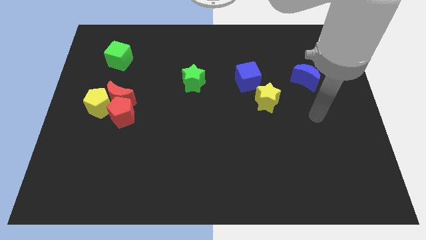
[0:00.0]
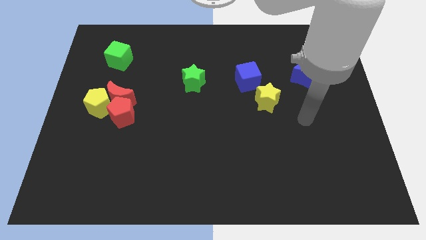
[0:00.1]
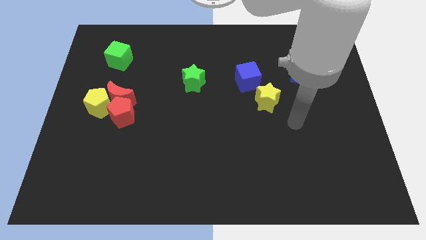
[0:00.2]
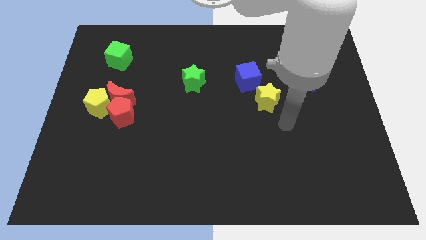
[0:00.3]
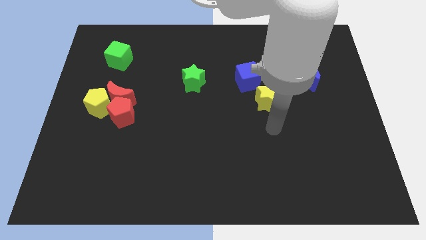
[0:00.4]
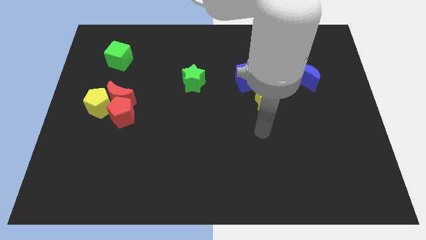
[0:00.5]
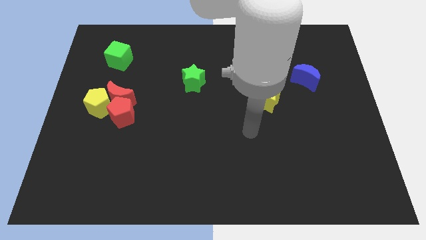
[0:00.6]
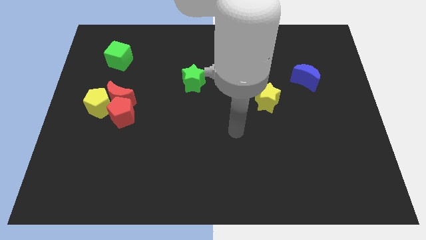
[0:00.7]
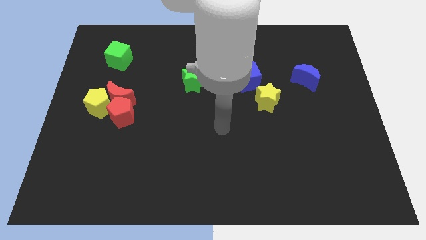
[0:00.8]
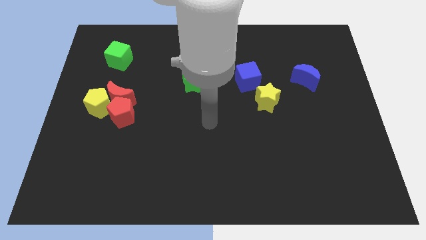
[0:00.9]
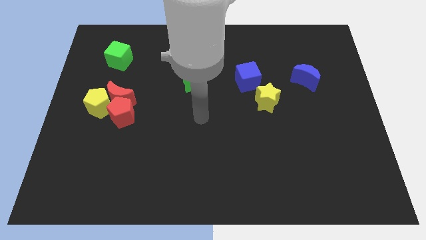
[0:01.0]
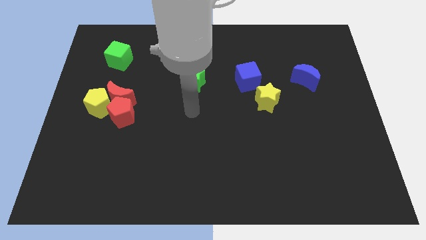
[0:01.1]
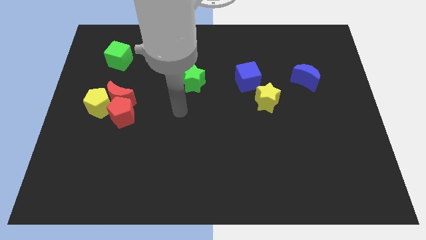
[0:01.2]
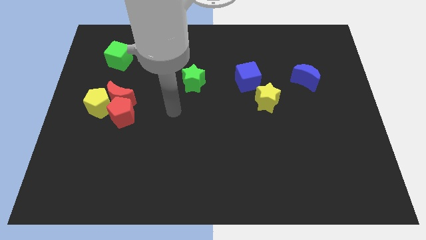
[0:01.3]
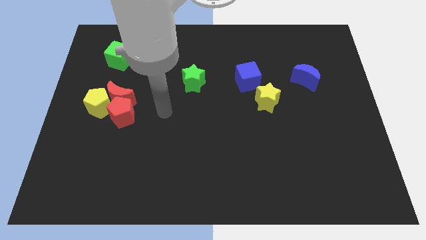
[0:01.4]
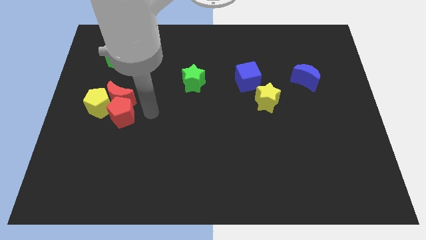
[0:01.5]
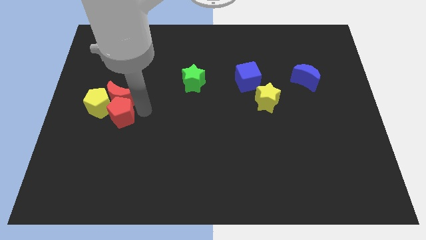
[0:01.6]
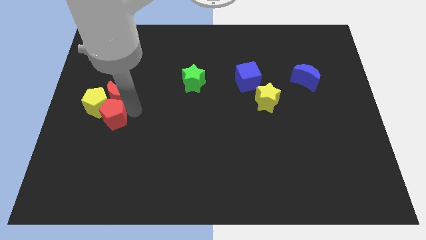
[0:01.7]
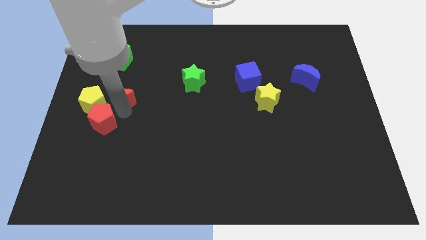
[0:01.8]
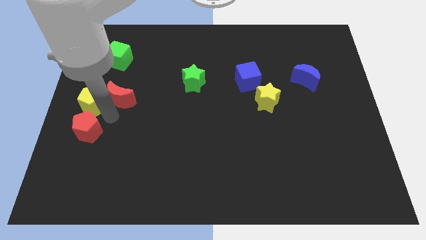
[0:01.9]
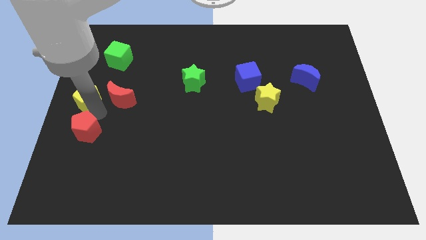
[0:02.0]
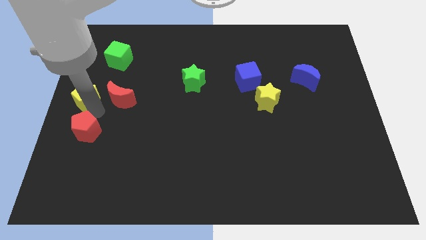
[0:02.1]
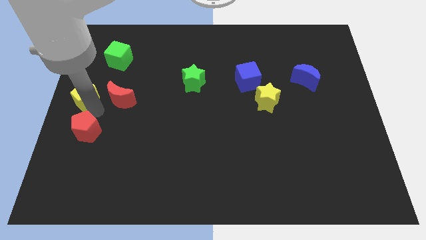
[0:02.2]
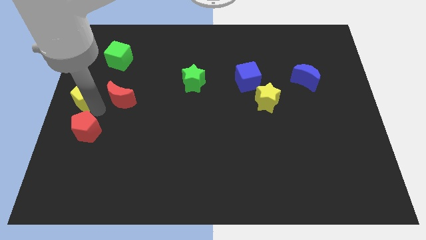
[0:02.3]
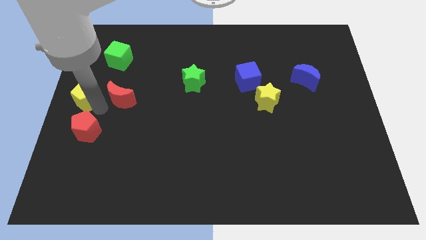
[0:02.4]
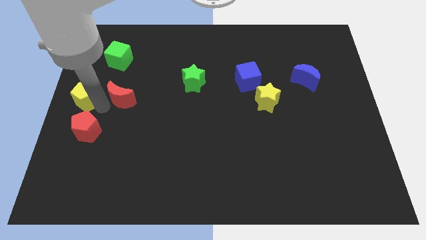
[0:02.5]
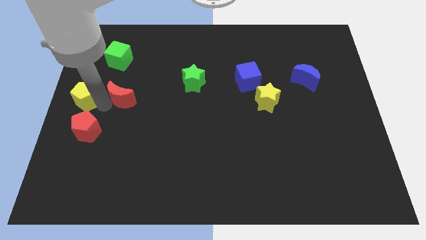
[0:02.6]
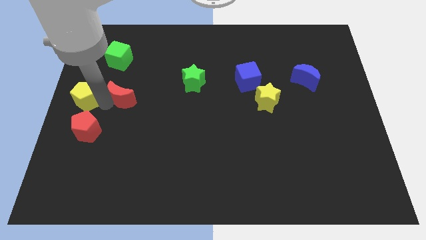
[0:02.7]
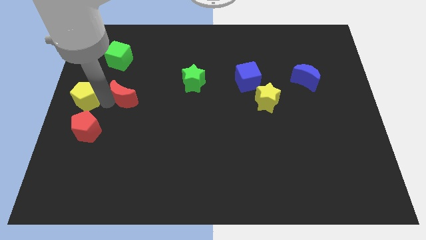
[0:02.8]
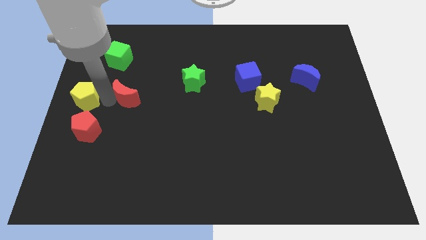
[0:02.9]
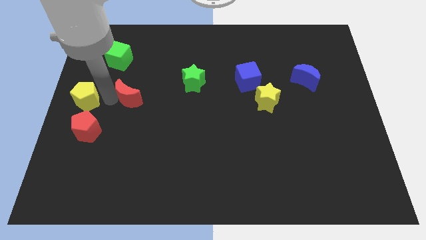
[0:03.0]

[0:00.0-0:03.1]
separate the red moon from the red pentagon and yellow pentagon

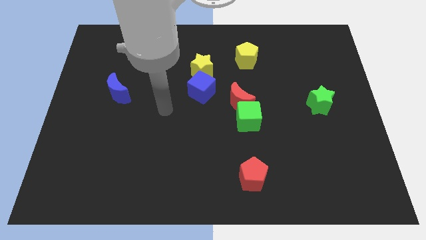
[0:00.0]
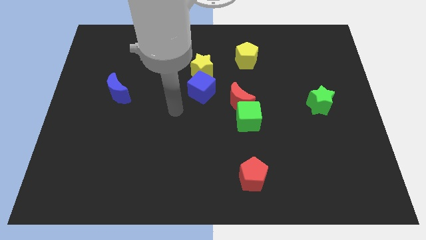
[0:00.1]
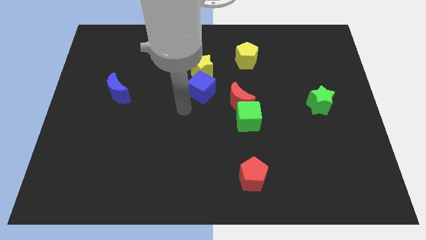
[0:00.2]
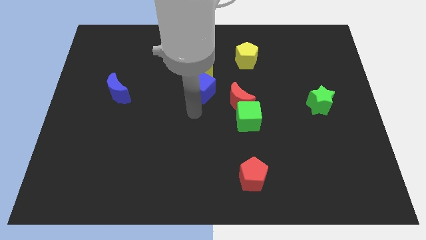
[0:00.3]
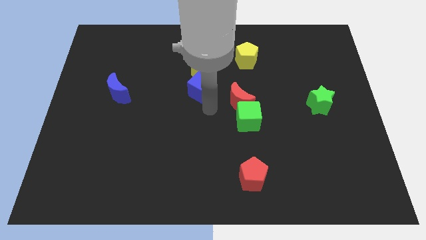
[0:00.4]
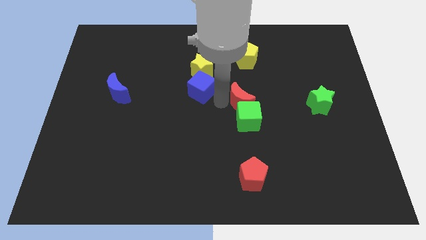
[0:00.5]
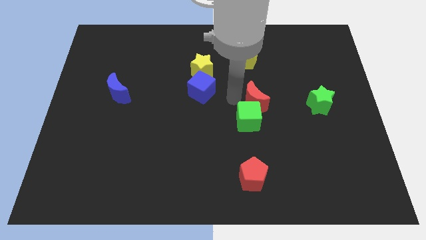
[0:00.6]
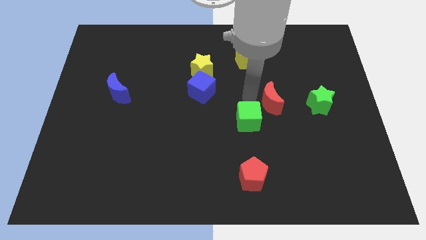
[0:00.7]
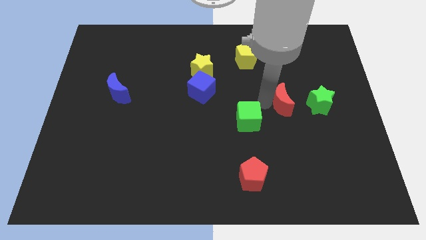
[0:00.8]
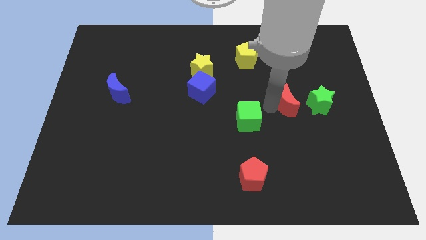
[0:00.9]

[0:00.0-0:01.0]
separate the green cube from the red moon

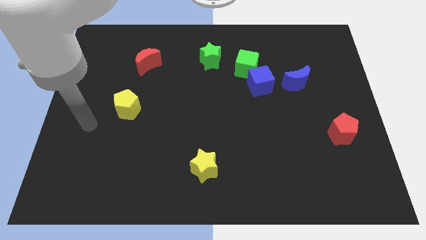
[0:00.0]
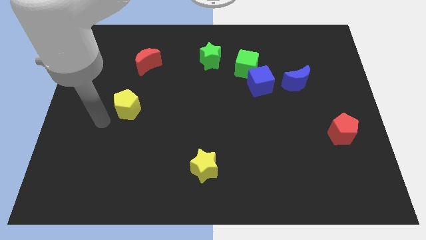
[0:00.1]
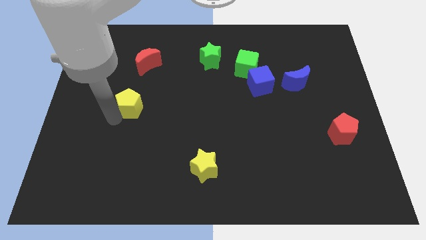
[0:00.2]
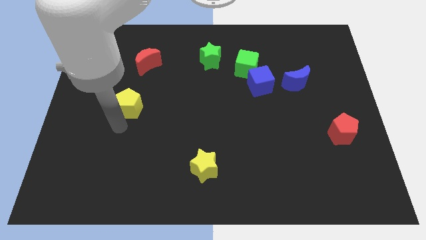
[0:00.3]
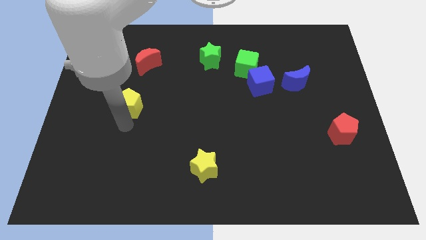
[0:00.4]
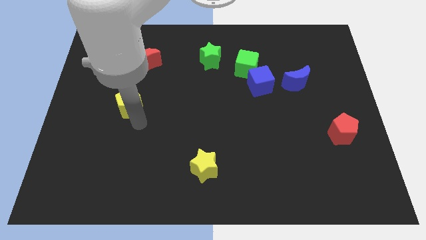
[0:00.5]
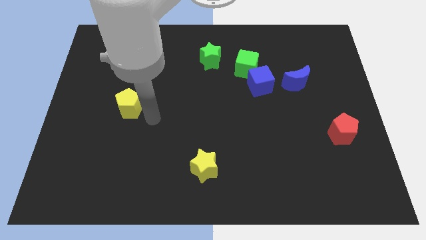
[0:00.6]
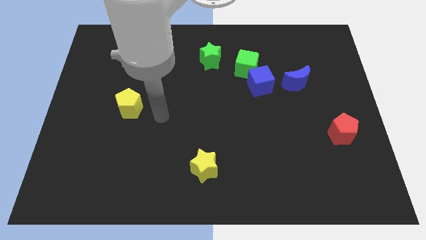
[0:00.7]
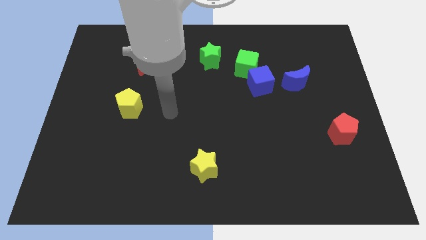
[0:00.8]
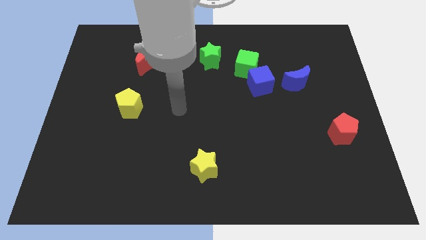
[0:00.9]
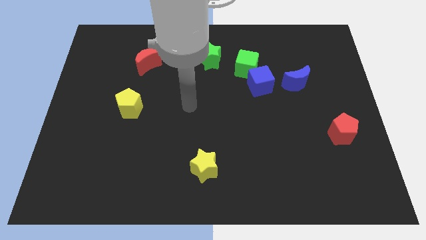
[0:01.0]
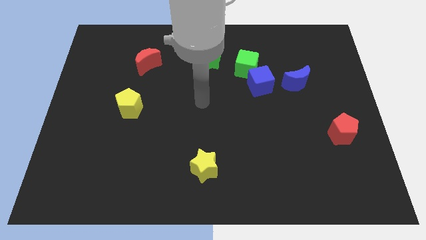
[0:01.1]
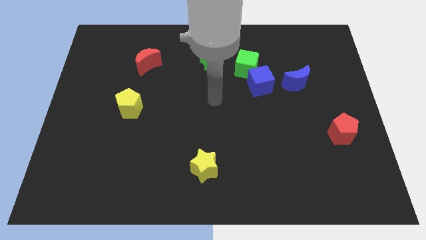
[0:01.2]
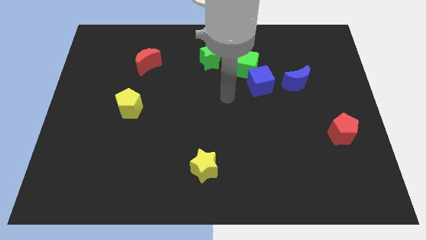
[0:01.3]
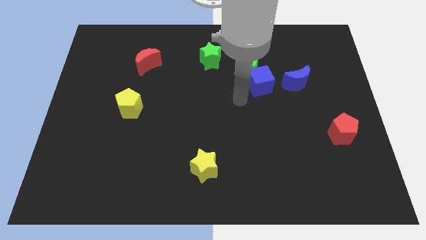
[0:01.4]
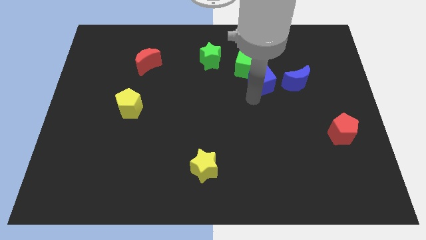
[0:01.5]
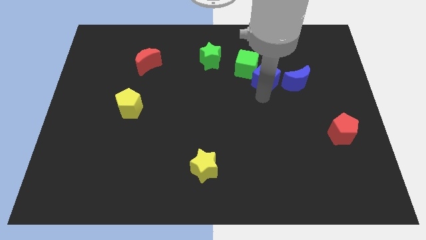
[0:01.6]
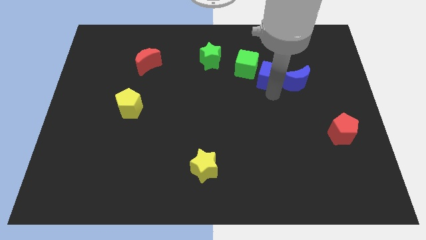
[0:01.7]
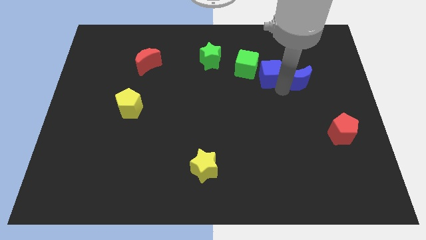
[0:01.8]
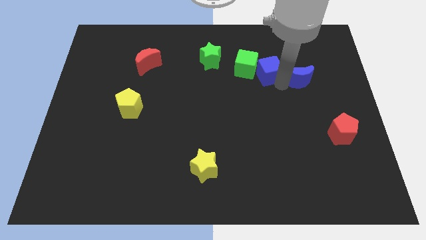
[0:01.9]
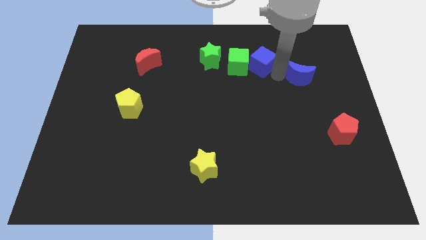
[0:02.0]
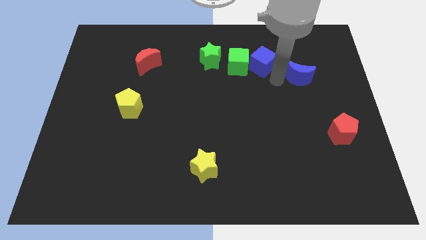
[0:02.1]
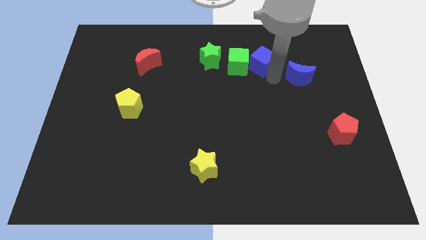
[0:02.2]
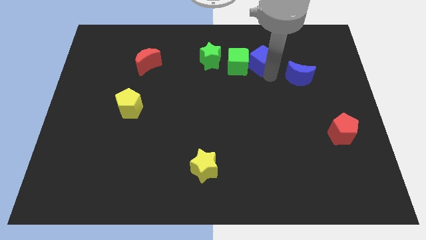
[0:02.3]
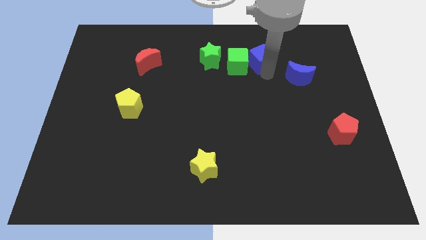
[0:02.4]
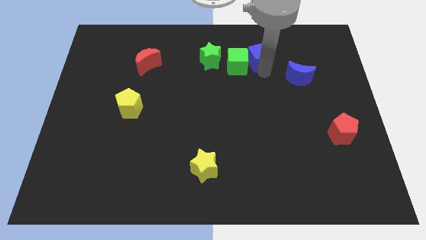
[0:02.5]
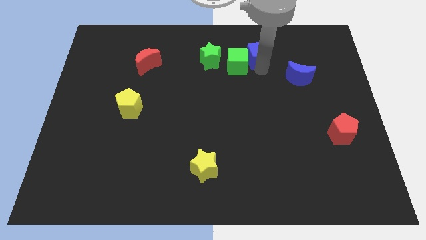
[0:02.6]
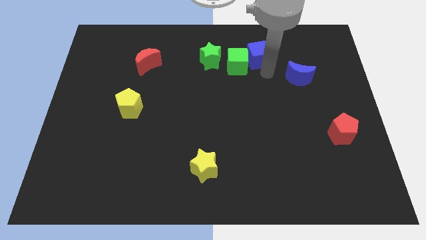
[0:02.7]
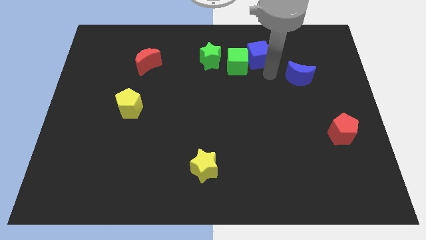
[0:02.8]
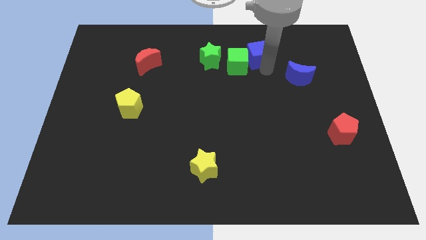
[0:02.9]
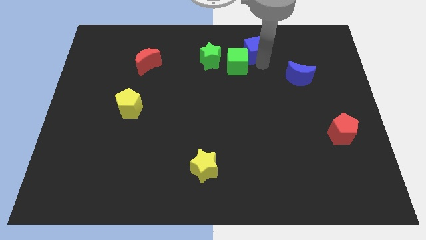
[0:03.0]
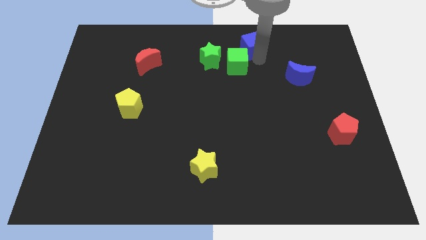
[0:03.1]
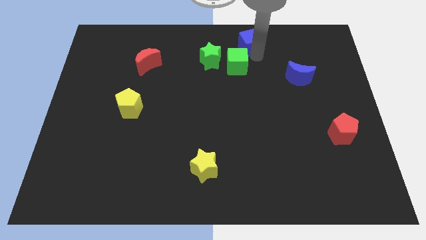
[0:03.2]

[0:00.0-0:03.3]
pull the blue cube apart from the green cube and blue moon

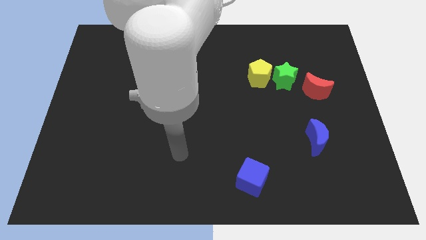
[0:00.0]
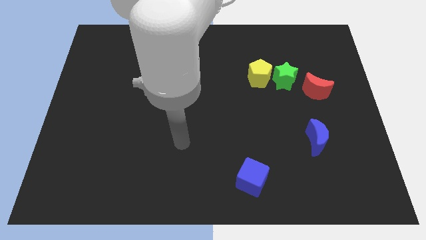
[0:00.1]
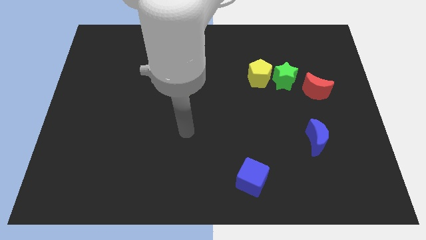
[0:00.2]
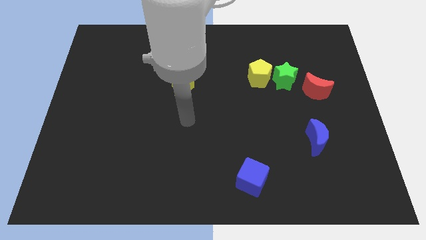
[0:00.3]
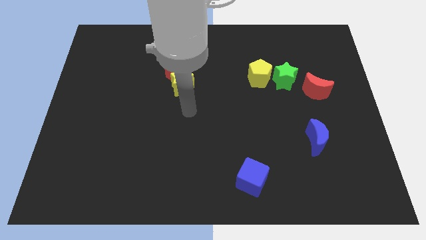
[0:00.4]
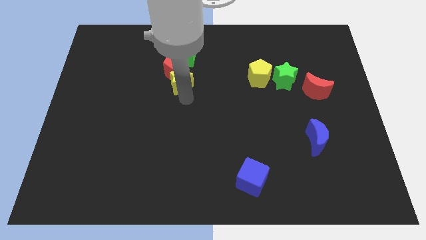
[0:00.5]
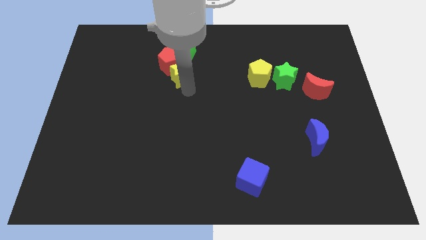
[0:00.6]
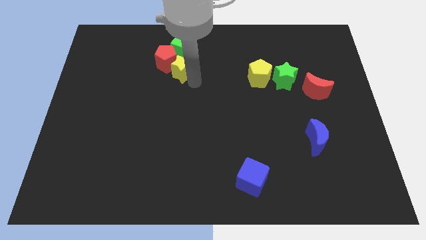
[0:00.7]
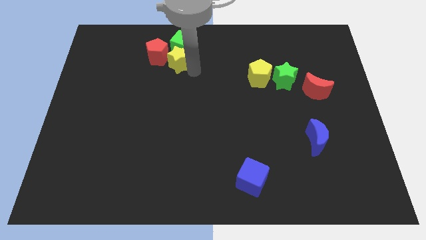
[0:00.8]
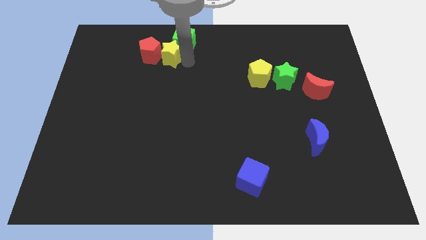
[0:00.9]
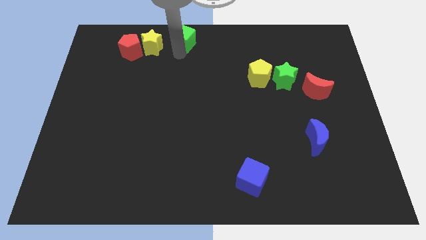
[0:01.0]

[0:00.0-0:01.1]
pull the red pentagon apart from the green cube and yellow star

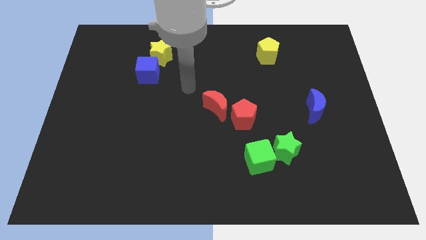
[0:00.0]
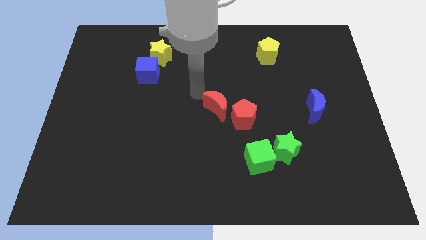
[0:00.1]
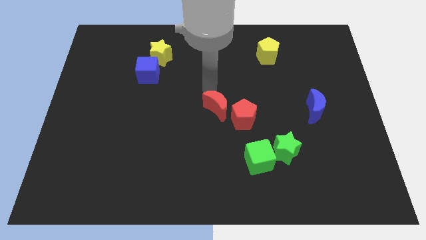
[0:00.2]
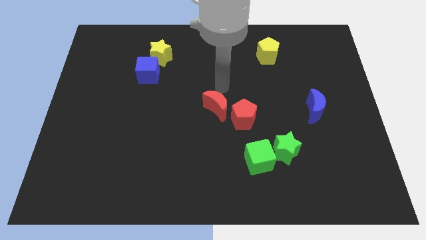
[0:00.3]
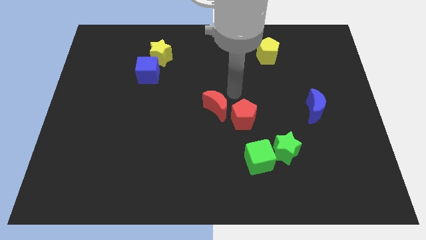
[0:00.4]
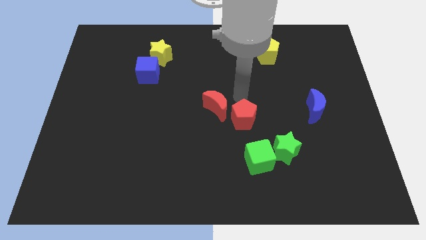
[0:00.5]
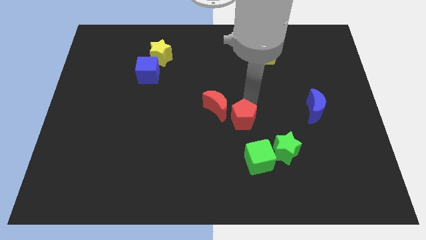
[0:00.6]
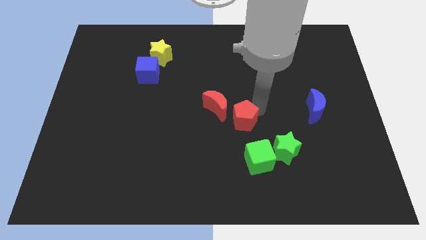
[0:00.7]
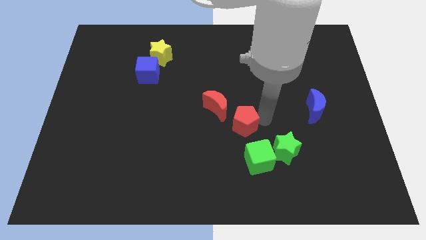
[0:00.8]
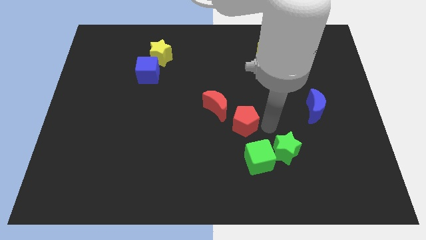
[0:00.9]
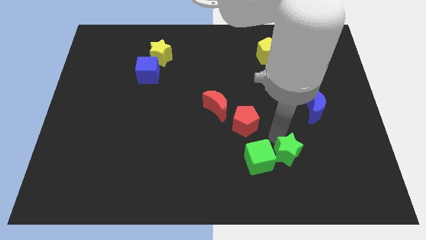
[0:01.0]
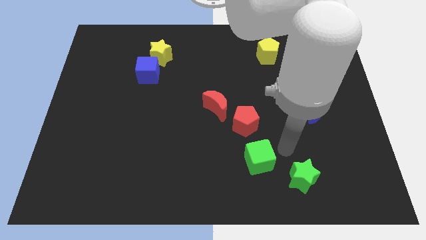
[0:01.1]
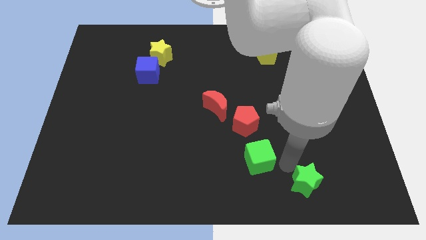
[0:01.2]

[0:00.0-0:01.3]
separate the green cube from the green star
